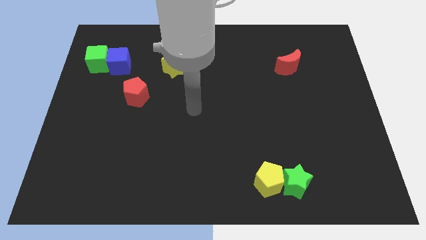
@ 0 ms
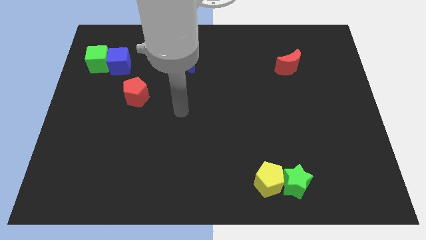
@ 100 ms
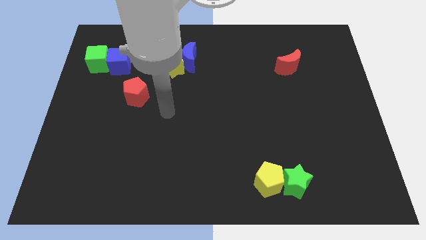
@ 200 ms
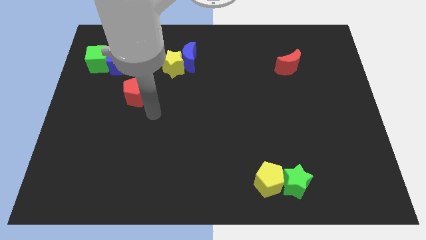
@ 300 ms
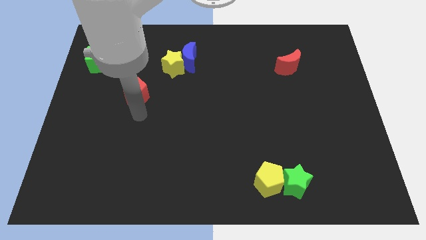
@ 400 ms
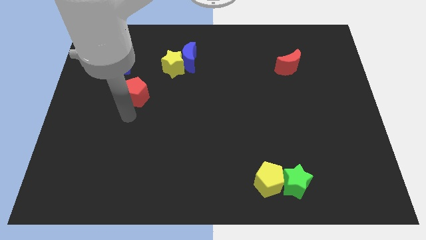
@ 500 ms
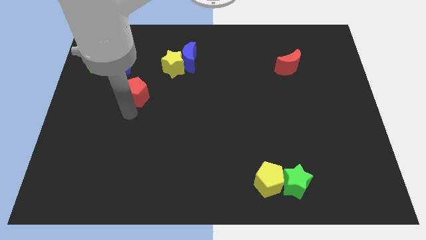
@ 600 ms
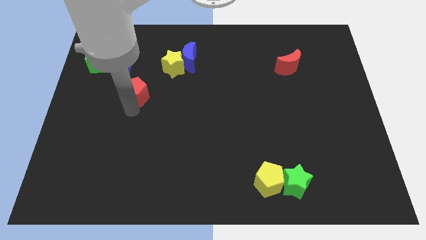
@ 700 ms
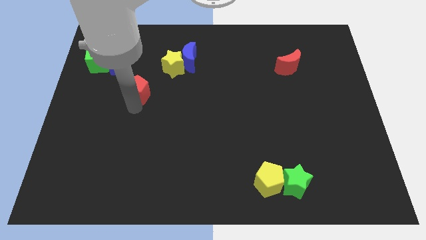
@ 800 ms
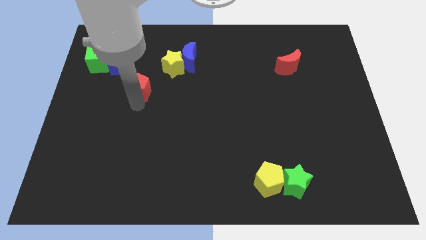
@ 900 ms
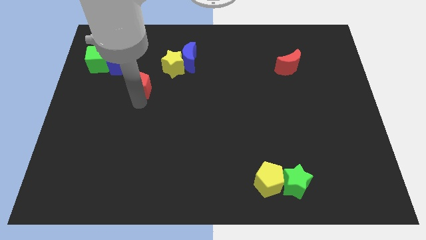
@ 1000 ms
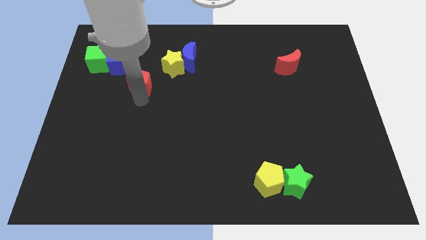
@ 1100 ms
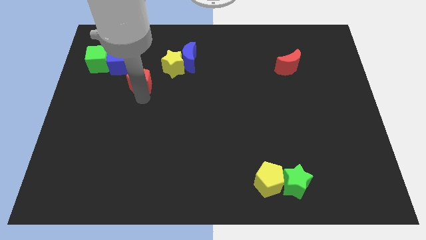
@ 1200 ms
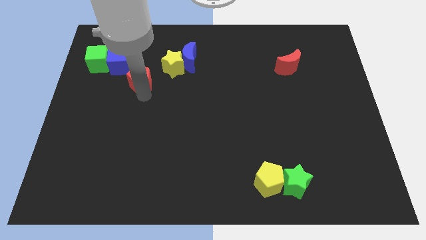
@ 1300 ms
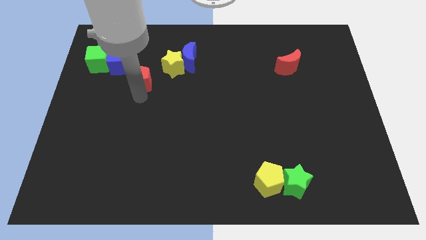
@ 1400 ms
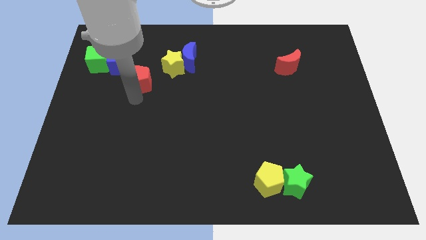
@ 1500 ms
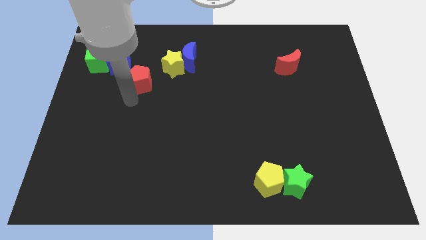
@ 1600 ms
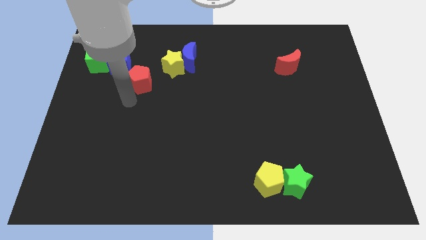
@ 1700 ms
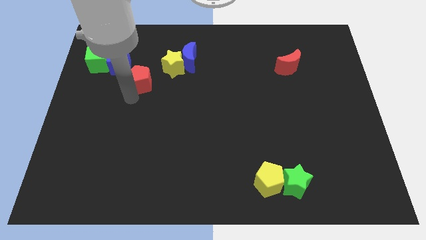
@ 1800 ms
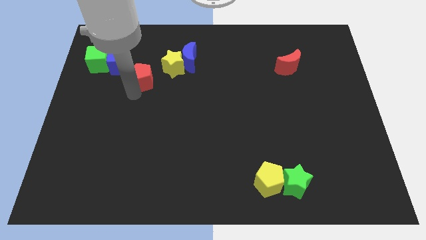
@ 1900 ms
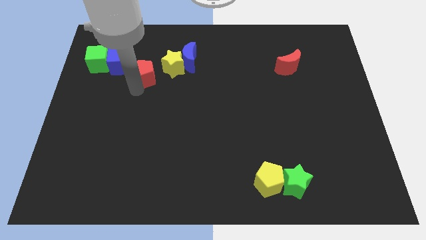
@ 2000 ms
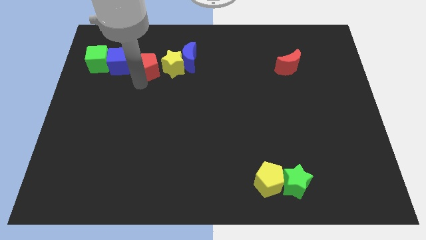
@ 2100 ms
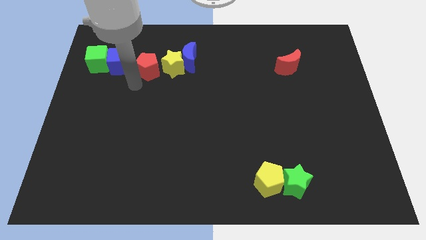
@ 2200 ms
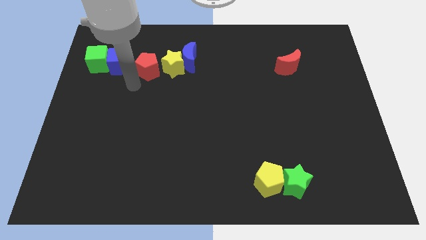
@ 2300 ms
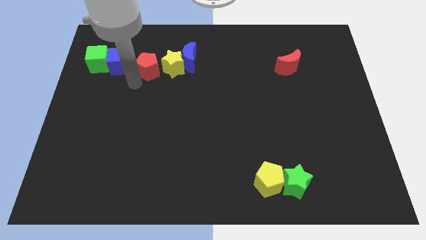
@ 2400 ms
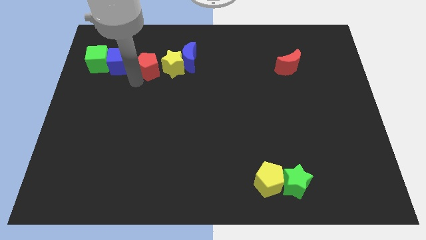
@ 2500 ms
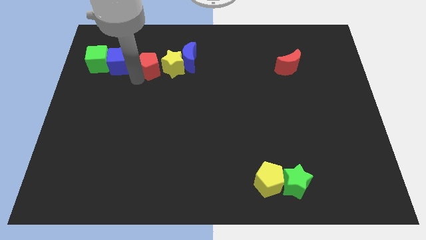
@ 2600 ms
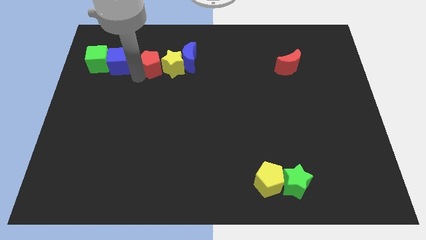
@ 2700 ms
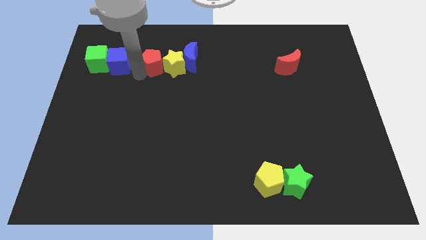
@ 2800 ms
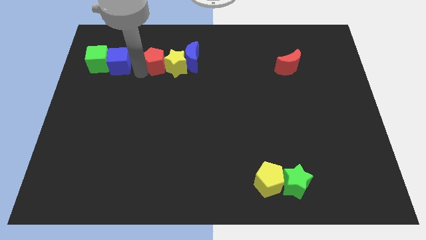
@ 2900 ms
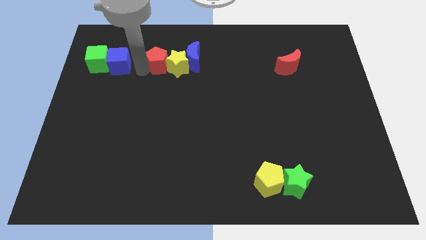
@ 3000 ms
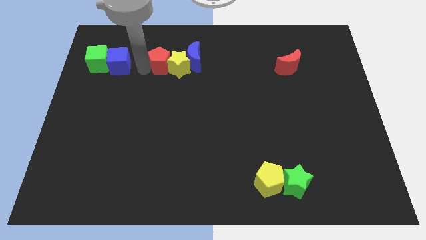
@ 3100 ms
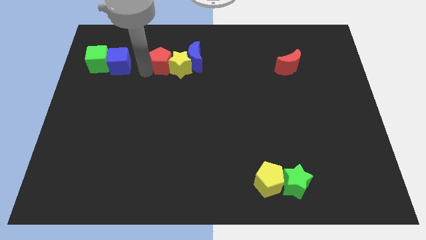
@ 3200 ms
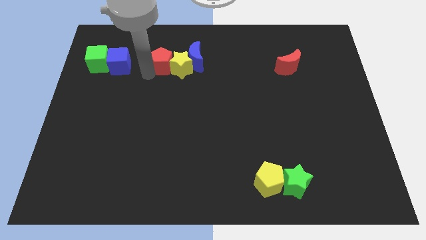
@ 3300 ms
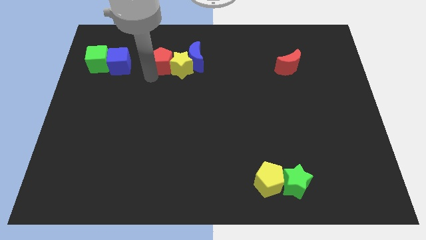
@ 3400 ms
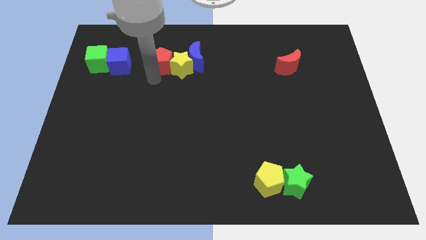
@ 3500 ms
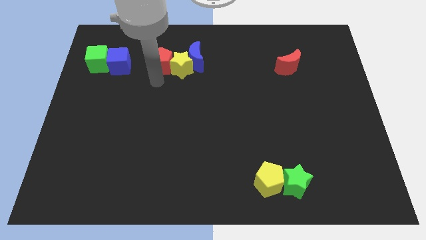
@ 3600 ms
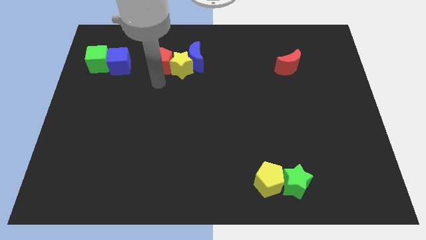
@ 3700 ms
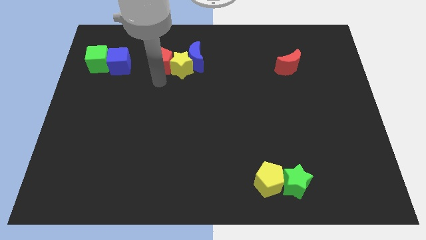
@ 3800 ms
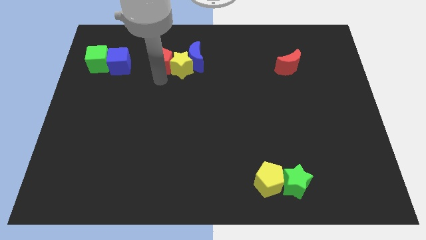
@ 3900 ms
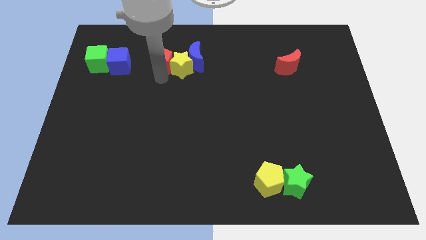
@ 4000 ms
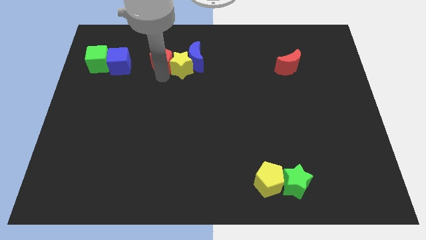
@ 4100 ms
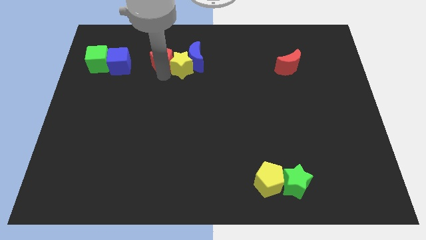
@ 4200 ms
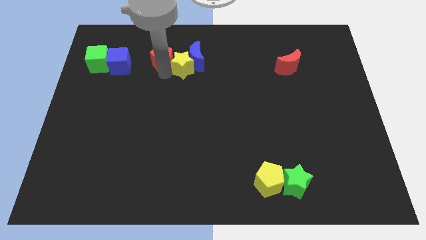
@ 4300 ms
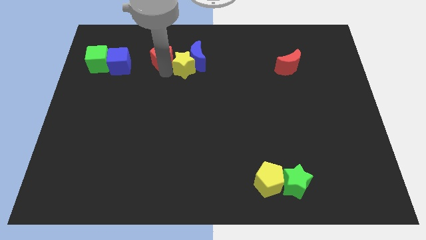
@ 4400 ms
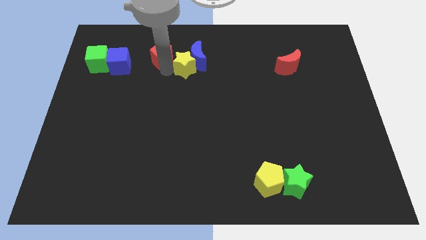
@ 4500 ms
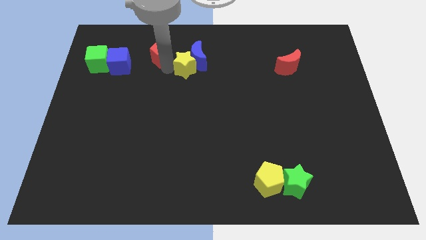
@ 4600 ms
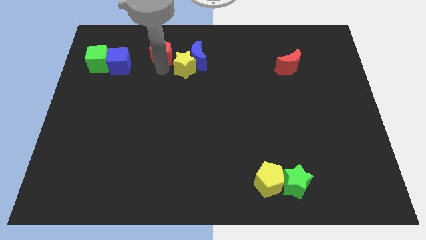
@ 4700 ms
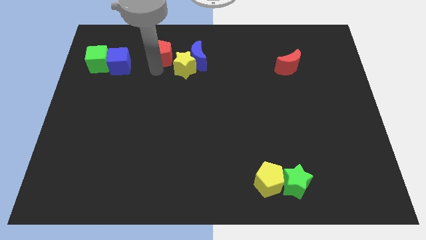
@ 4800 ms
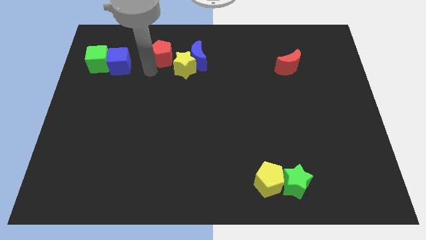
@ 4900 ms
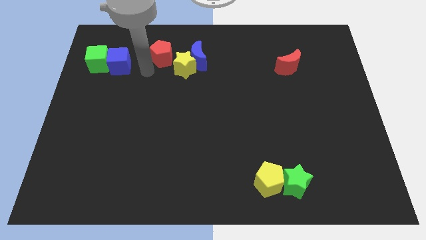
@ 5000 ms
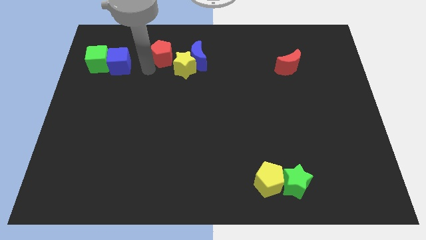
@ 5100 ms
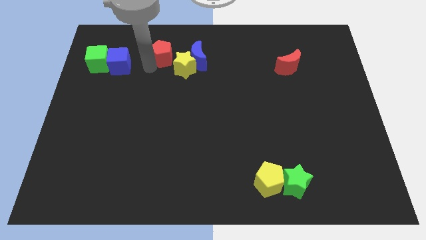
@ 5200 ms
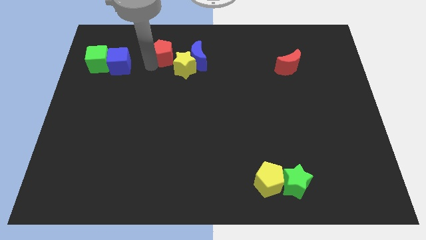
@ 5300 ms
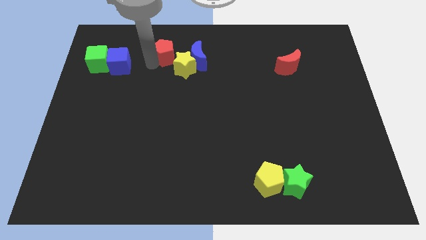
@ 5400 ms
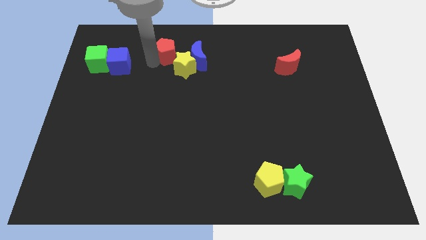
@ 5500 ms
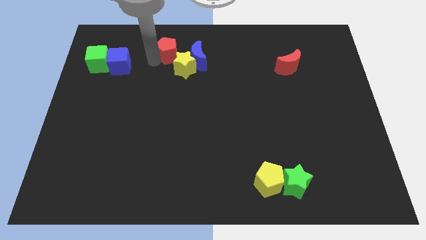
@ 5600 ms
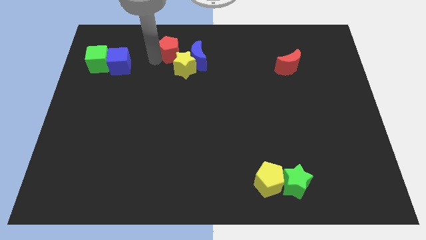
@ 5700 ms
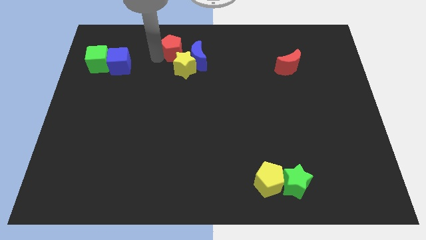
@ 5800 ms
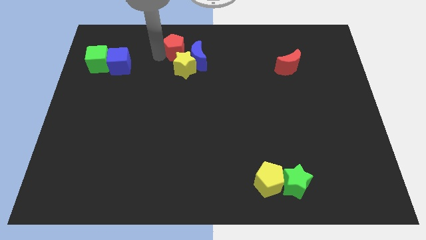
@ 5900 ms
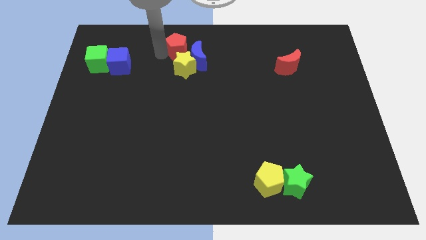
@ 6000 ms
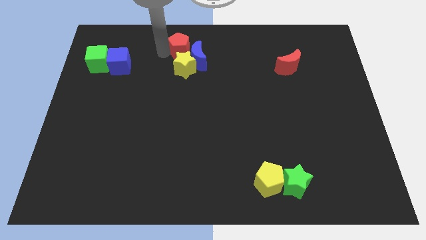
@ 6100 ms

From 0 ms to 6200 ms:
move the red pentagon to the top

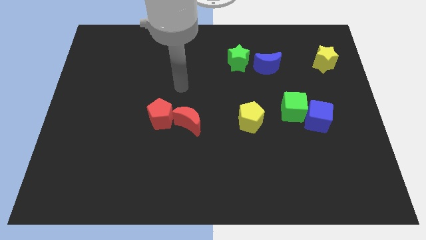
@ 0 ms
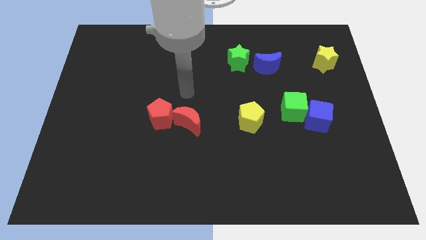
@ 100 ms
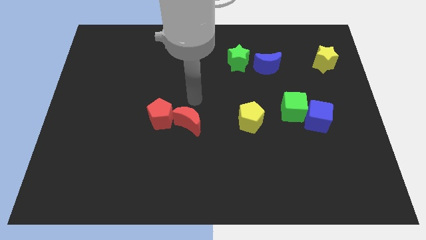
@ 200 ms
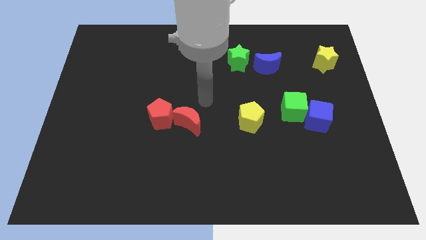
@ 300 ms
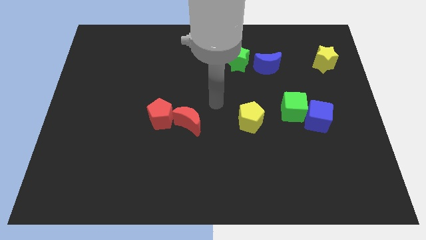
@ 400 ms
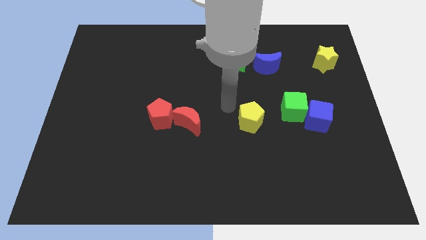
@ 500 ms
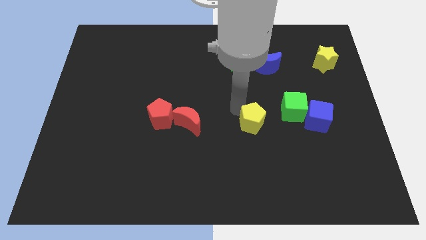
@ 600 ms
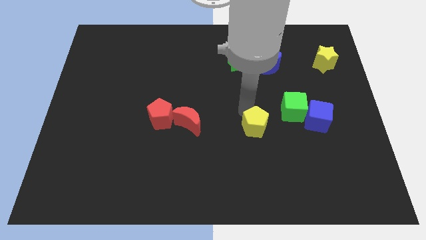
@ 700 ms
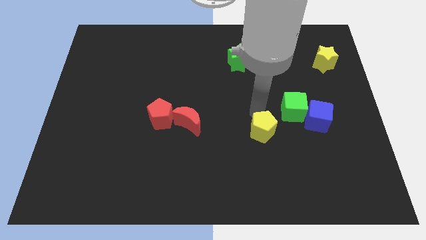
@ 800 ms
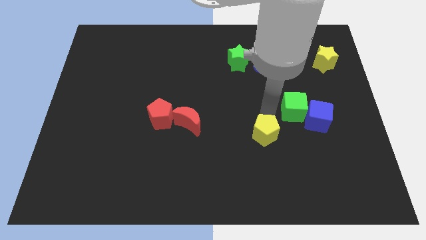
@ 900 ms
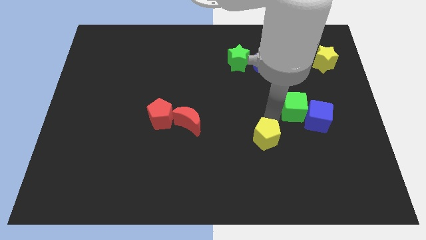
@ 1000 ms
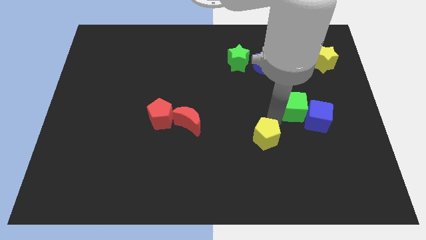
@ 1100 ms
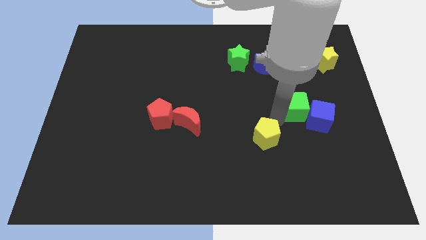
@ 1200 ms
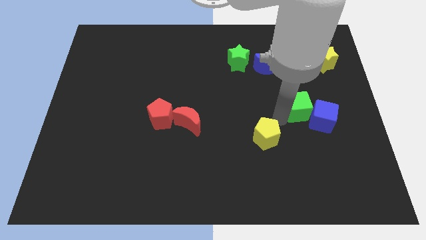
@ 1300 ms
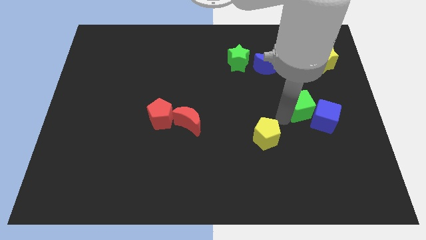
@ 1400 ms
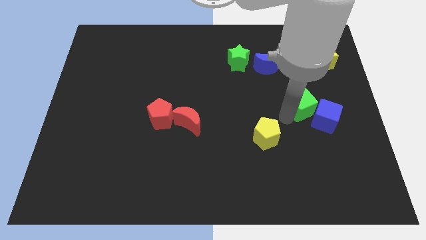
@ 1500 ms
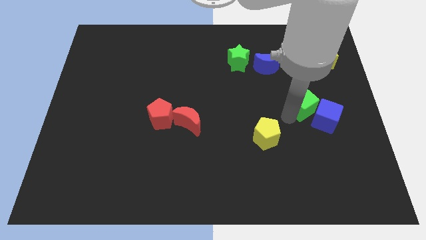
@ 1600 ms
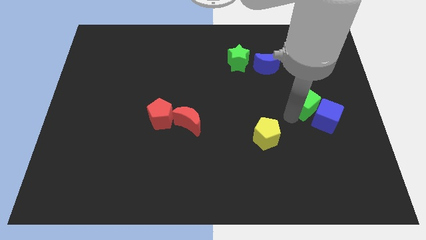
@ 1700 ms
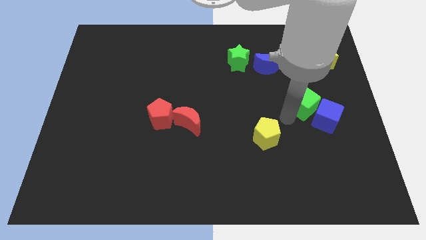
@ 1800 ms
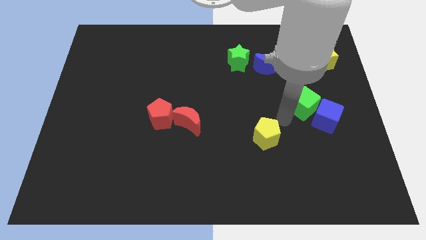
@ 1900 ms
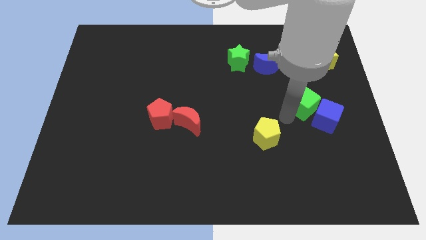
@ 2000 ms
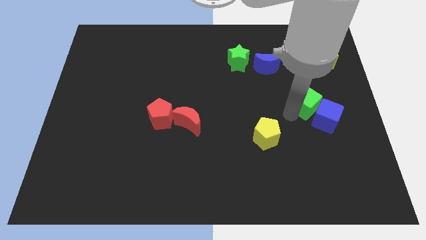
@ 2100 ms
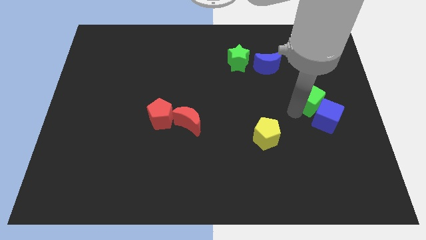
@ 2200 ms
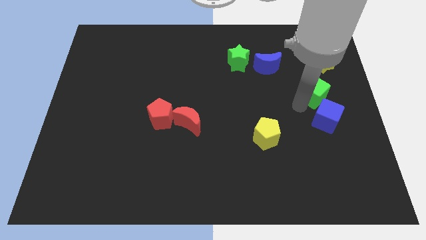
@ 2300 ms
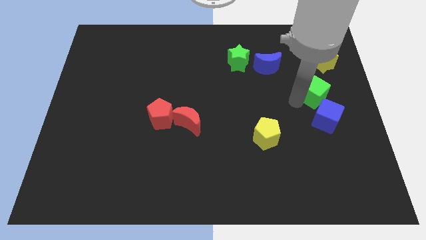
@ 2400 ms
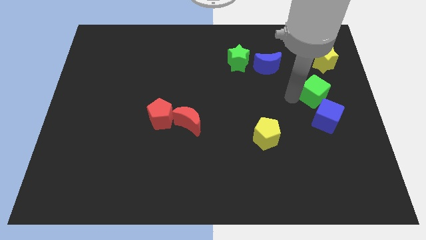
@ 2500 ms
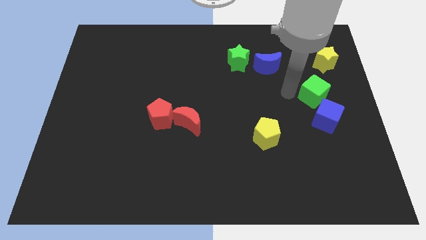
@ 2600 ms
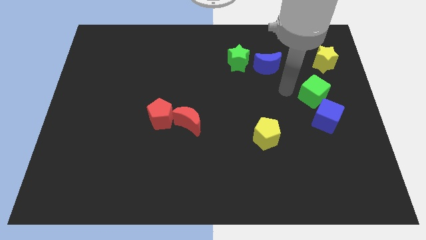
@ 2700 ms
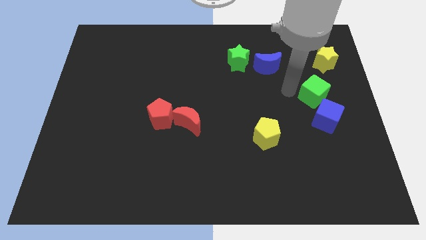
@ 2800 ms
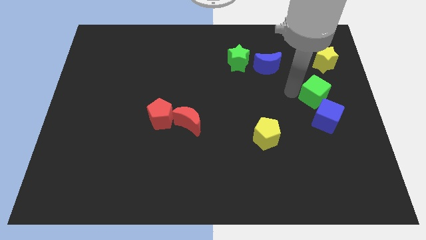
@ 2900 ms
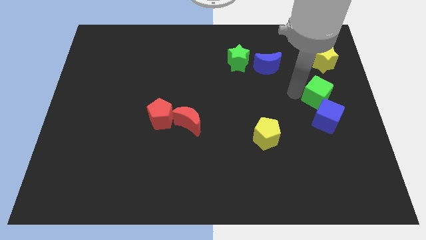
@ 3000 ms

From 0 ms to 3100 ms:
push the green cube to the right side
